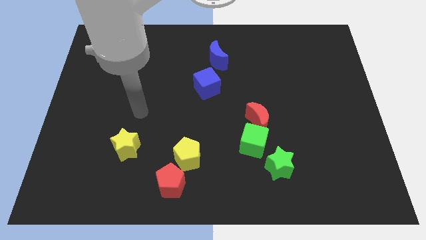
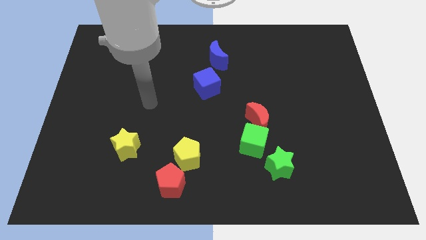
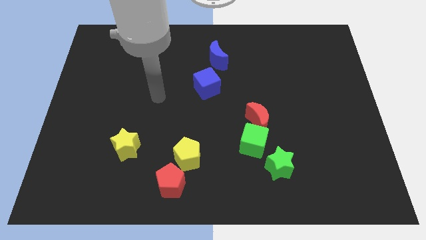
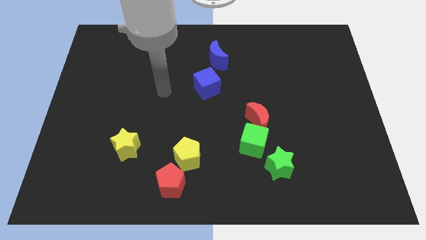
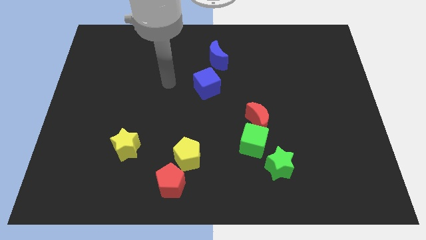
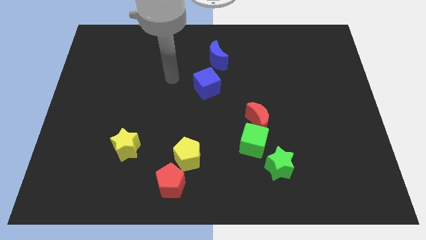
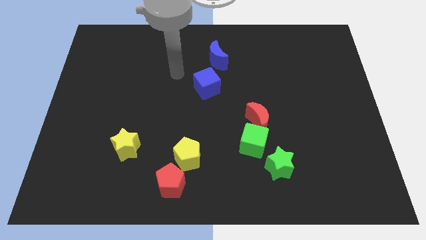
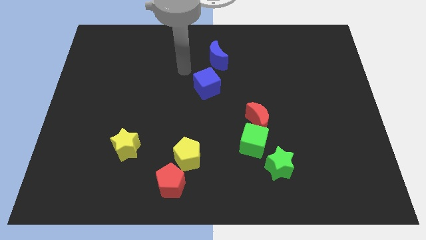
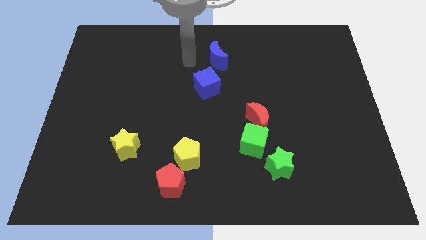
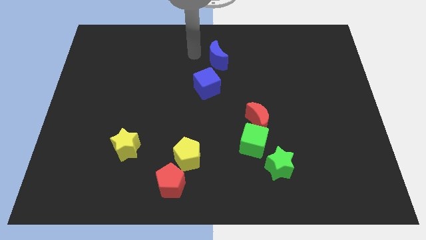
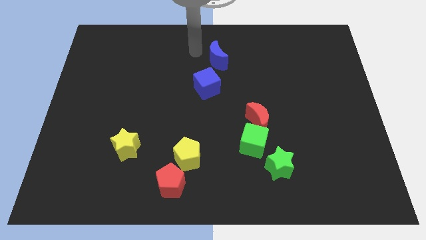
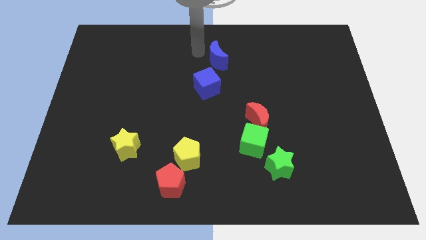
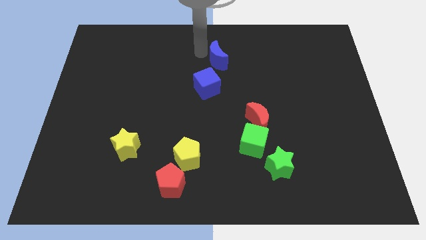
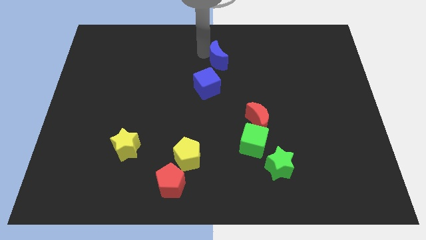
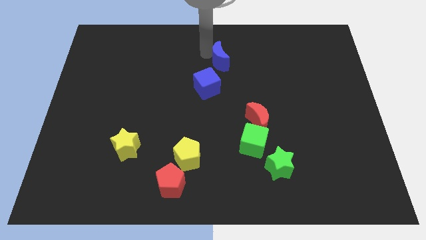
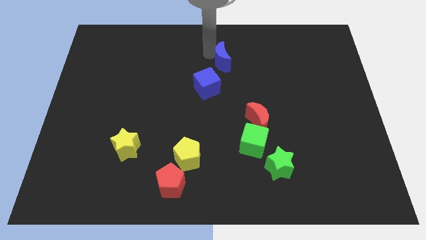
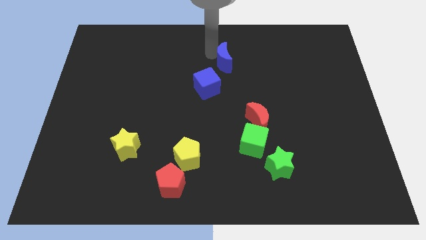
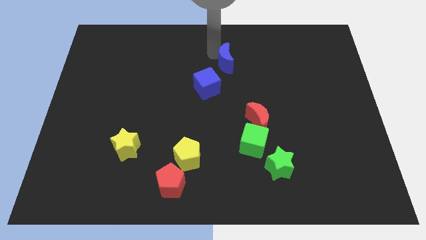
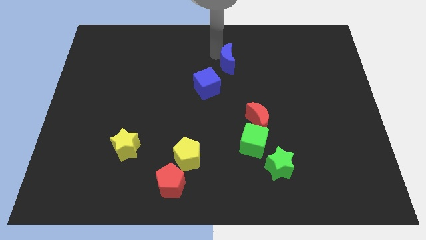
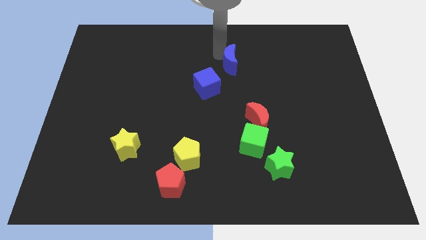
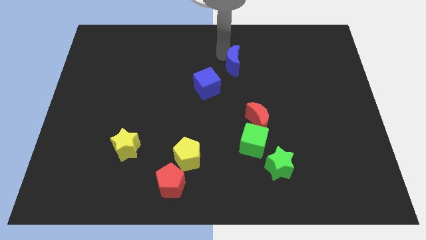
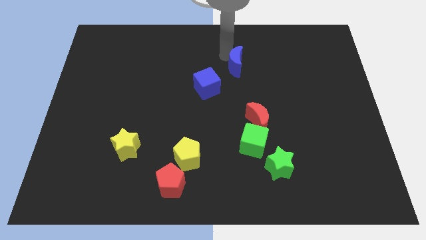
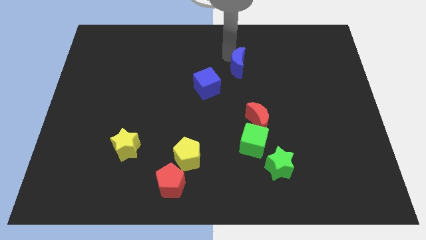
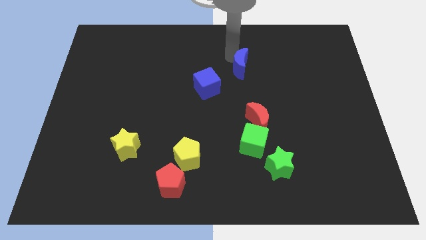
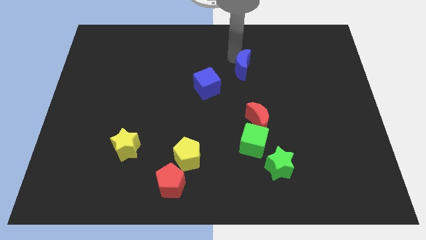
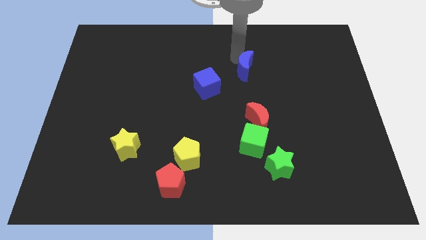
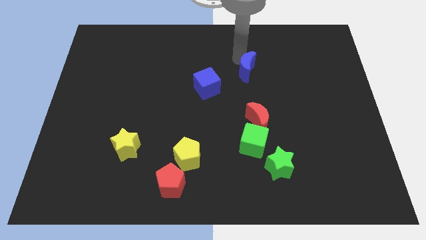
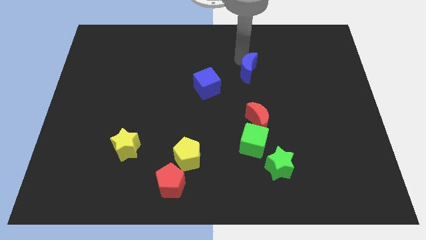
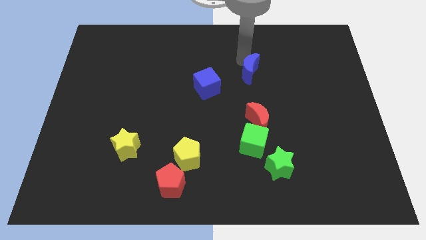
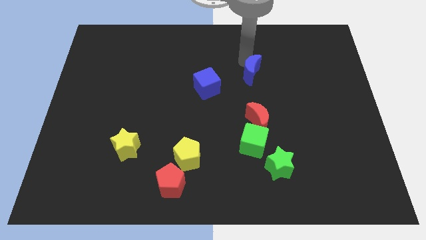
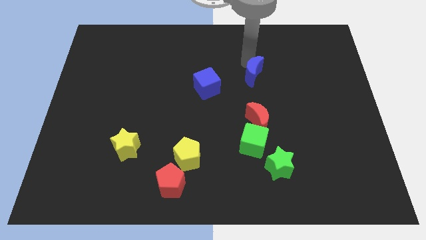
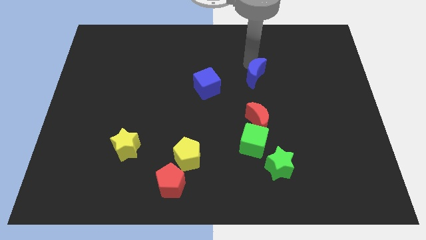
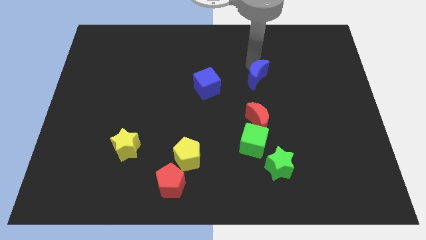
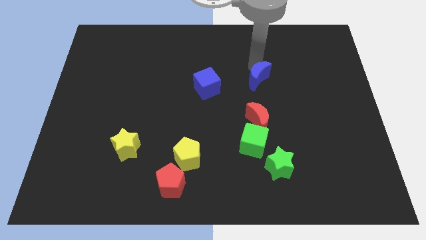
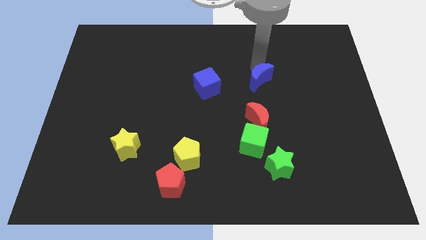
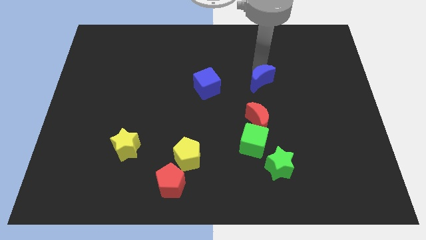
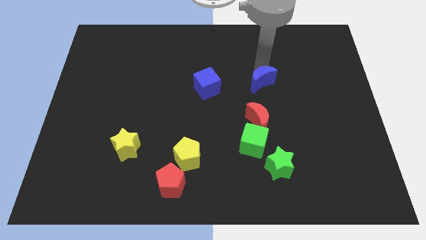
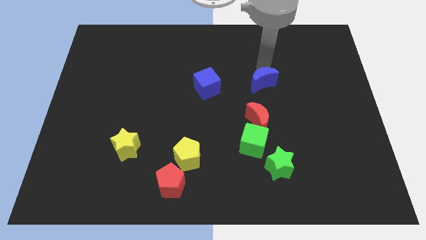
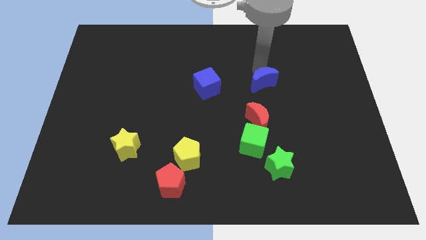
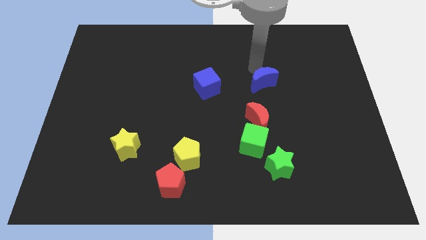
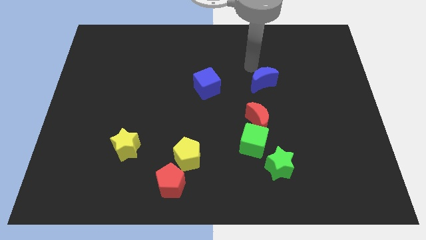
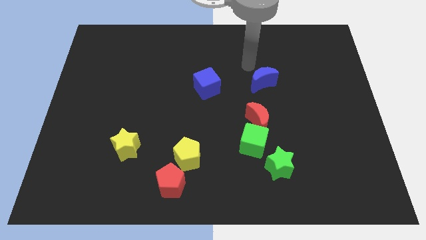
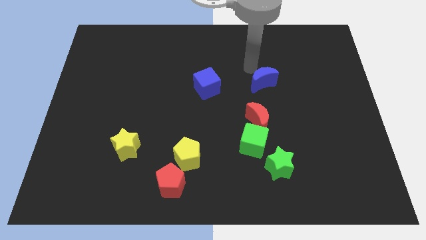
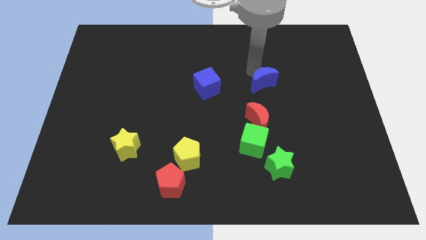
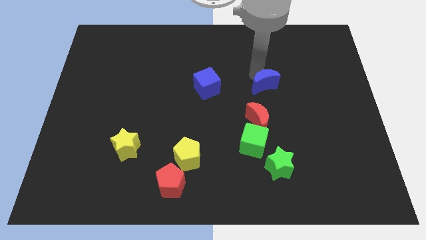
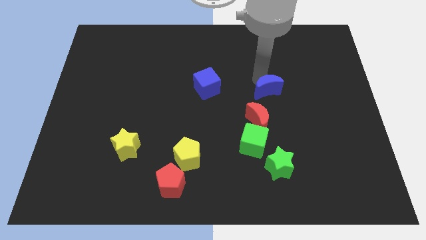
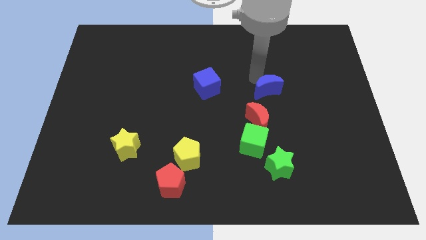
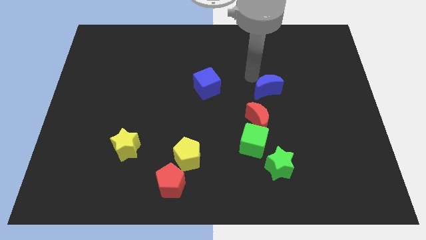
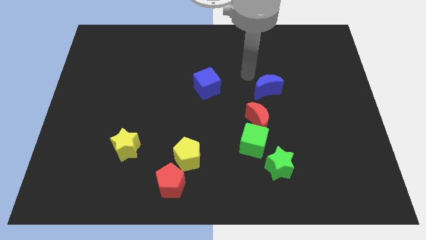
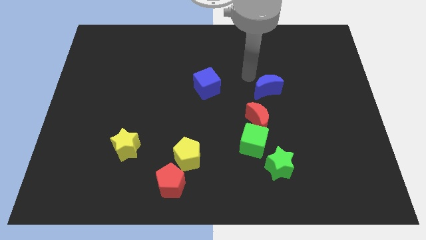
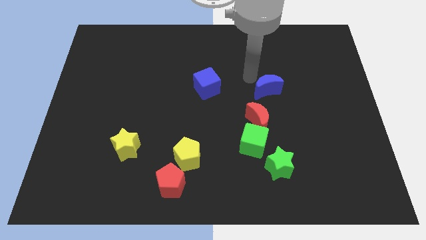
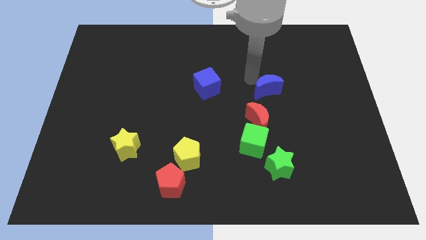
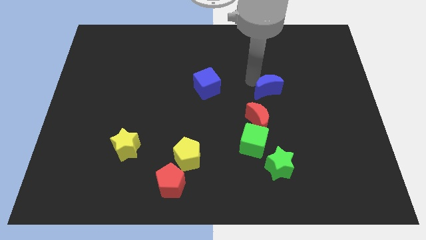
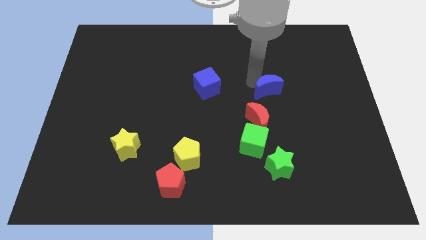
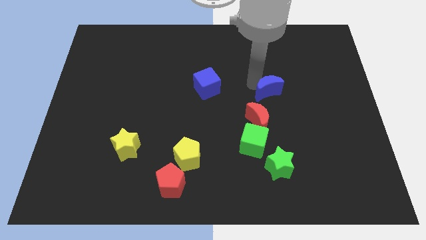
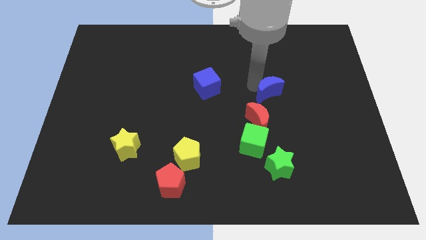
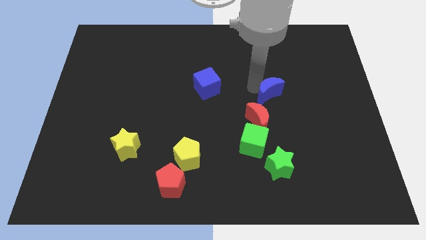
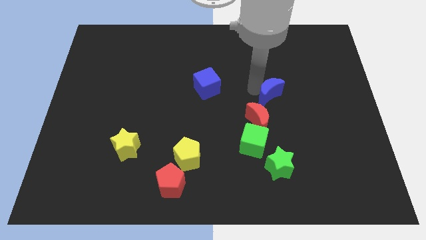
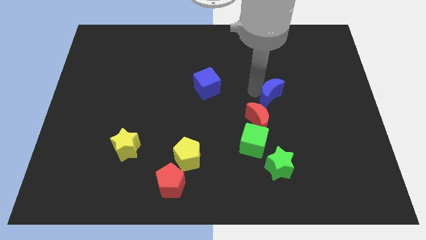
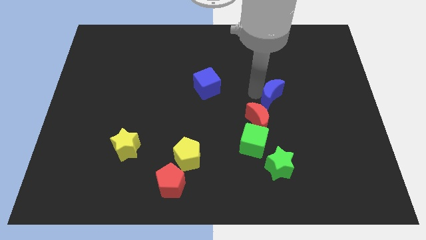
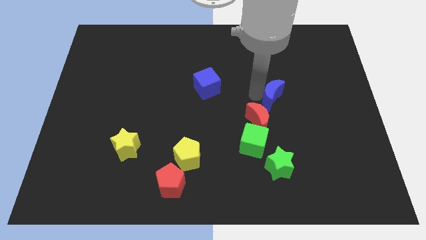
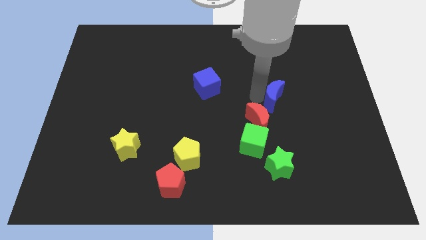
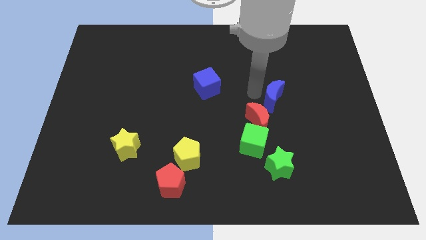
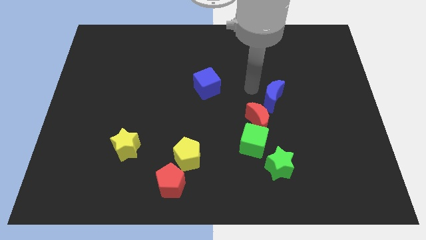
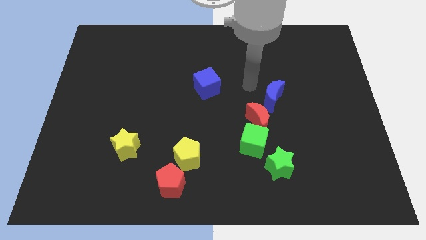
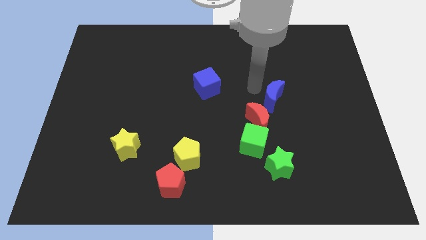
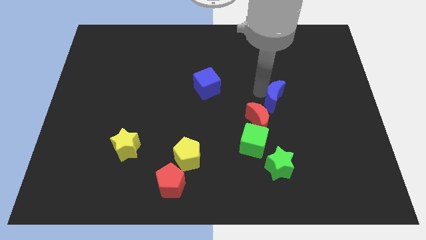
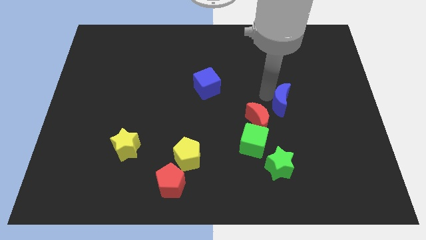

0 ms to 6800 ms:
slide the blue moon downwards and then to the right

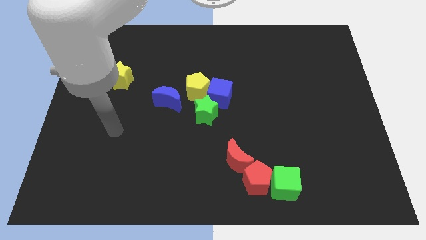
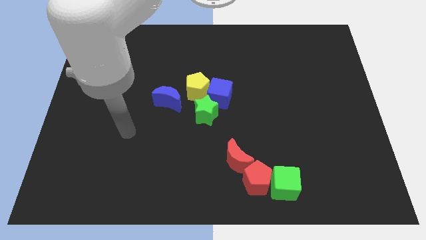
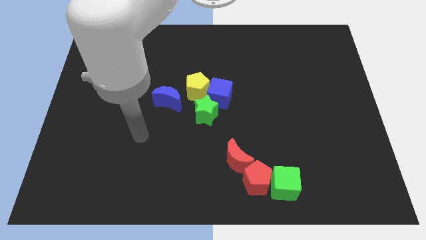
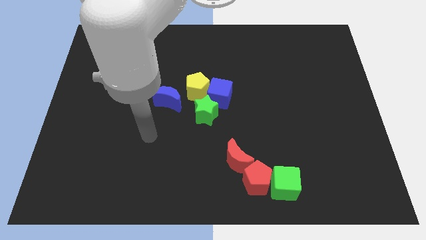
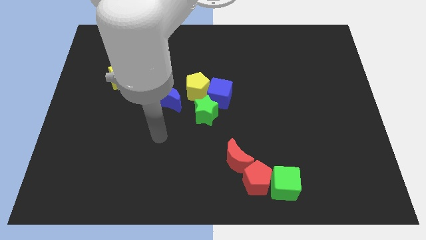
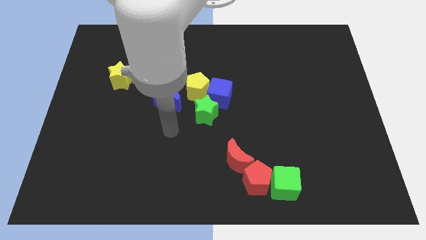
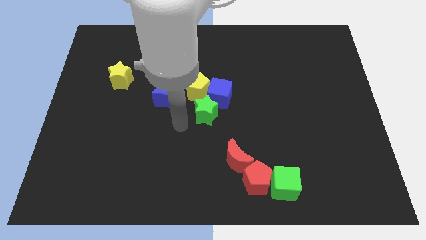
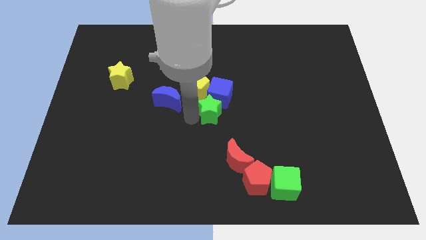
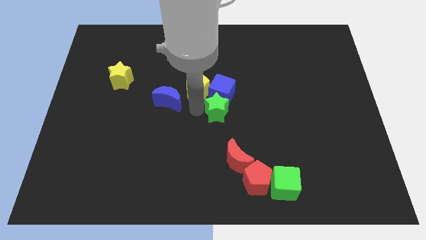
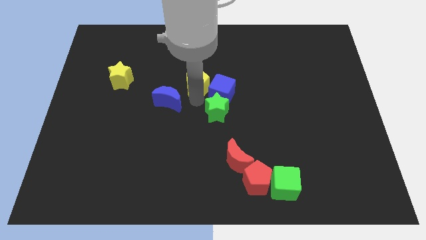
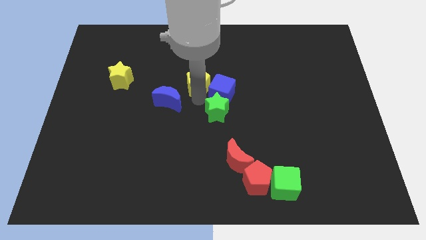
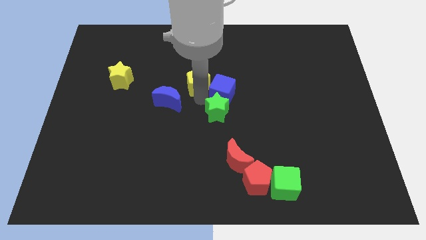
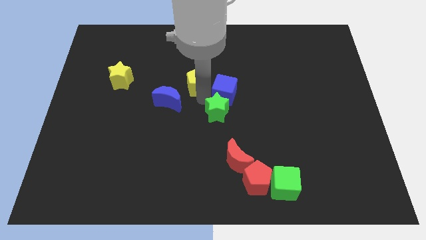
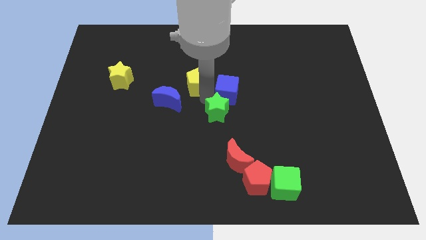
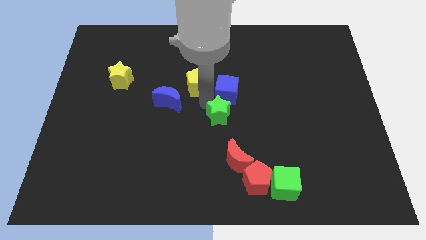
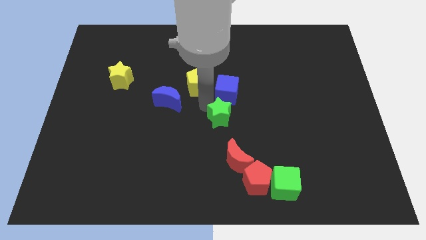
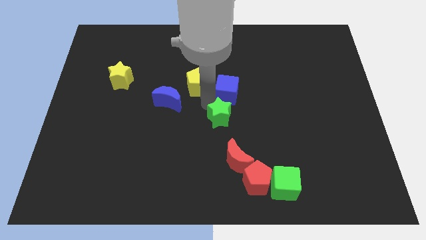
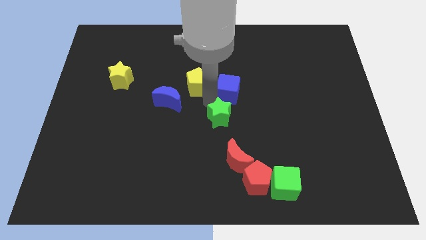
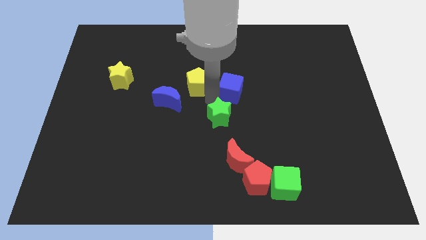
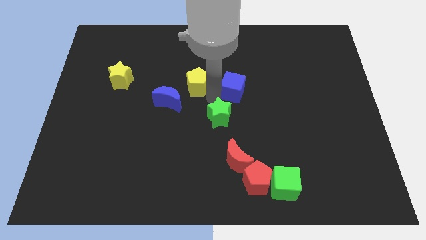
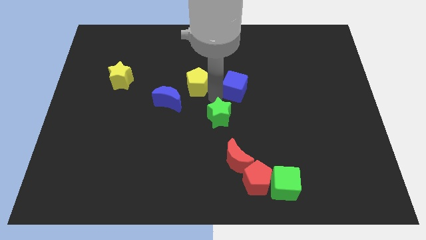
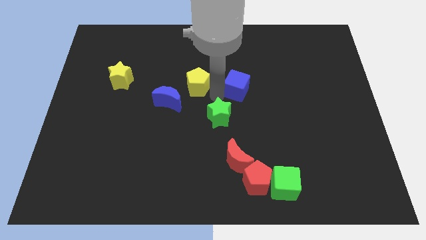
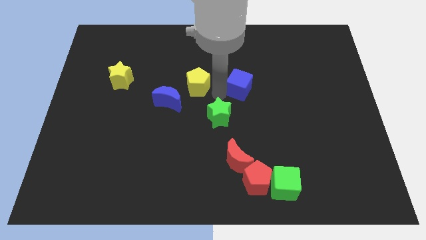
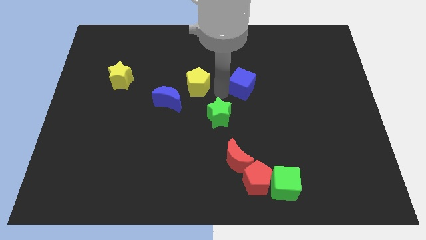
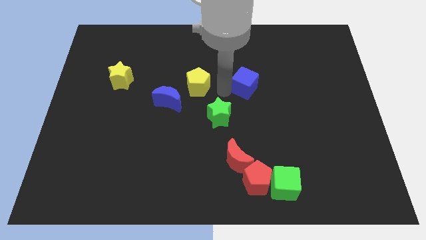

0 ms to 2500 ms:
slightly move the blue cube up and to the right diagonally
